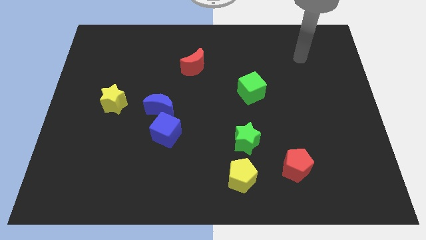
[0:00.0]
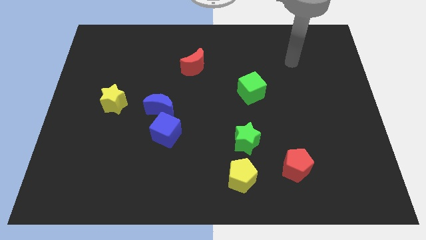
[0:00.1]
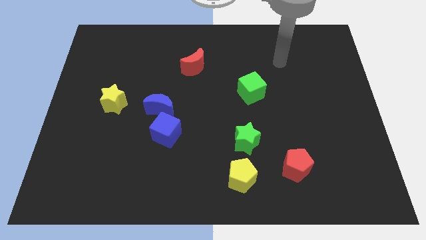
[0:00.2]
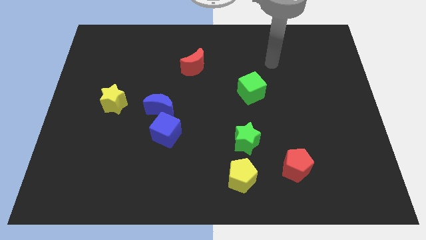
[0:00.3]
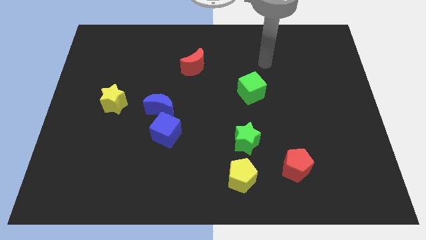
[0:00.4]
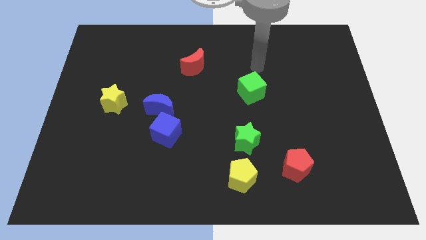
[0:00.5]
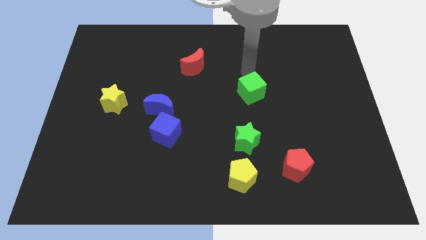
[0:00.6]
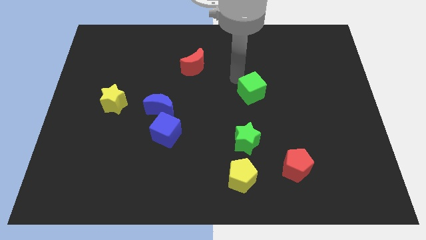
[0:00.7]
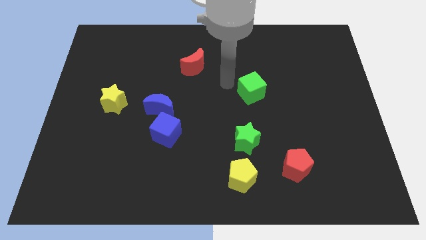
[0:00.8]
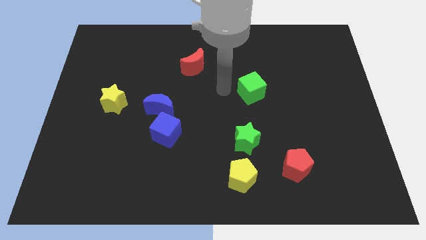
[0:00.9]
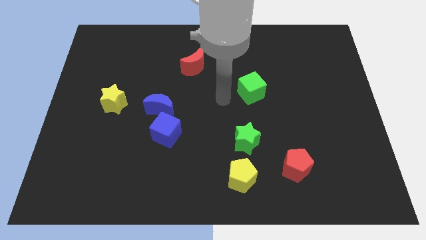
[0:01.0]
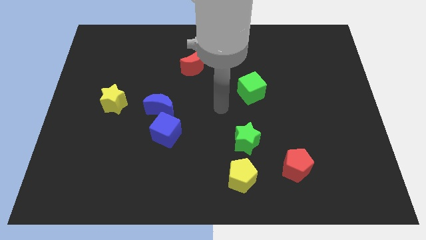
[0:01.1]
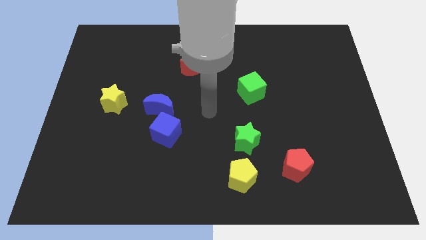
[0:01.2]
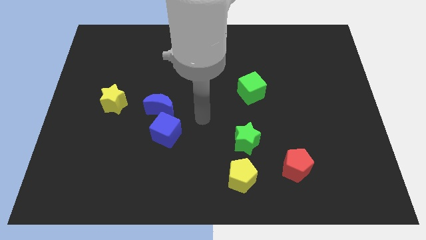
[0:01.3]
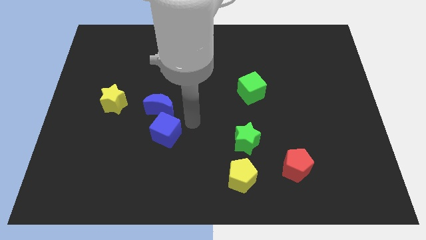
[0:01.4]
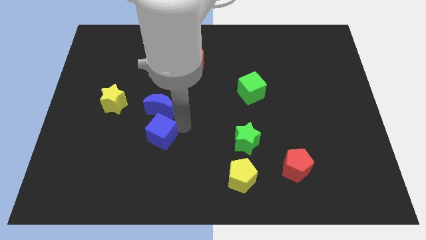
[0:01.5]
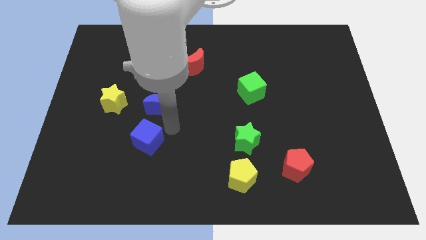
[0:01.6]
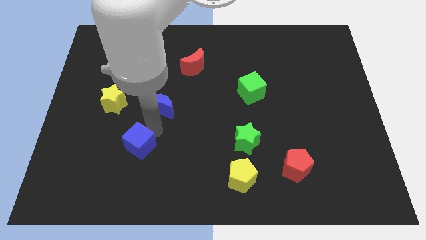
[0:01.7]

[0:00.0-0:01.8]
move the blue moon away from the blue cube

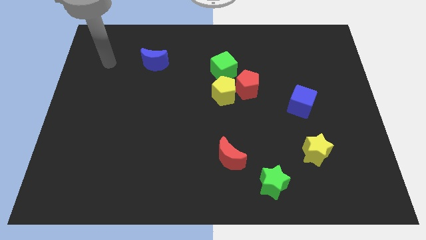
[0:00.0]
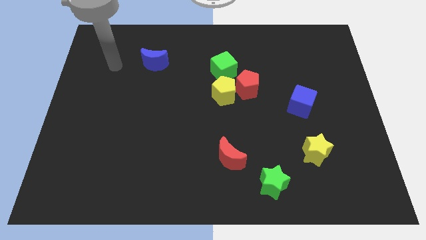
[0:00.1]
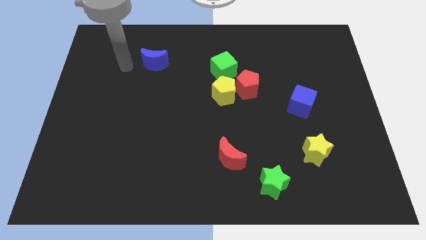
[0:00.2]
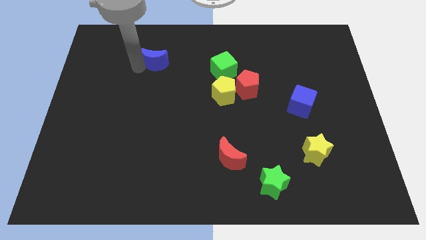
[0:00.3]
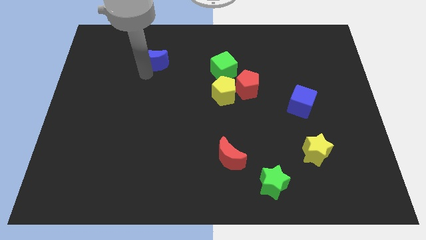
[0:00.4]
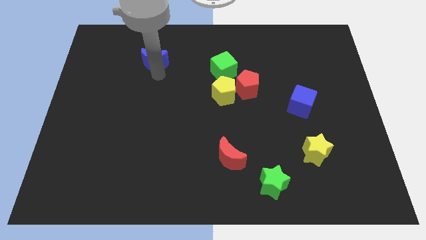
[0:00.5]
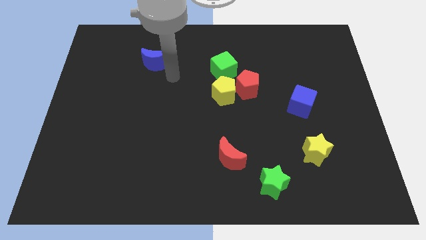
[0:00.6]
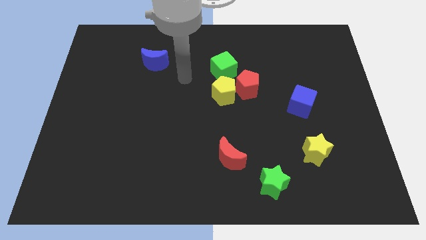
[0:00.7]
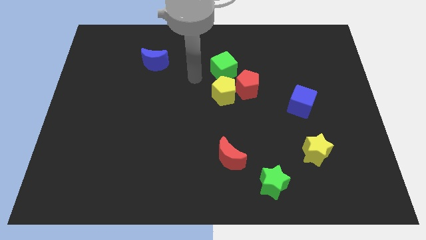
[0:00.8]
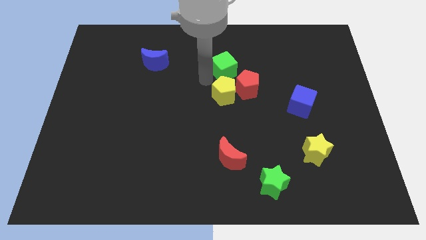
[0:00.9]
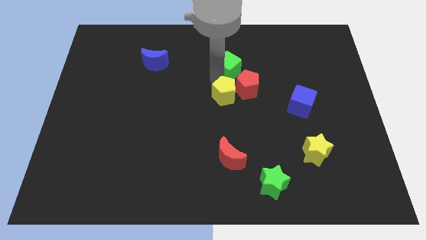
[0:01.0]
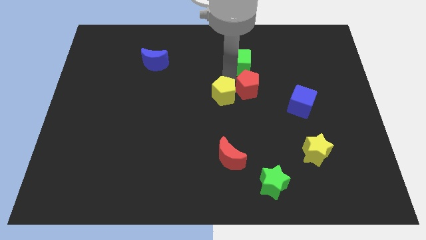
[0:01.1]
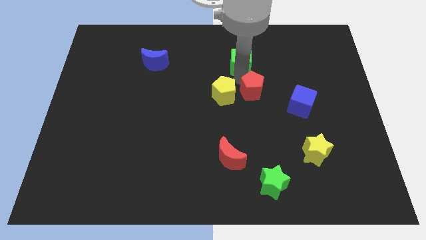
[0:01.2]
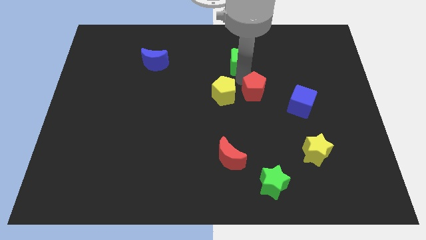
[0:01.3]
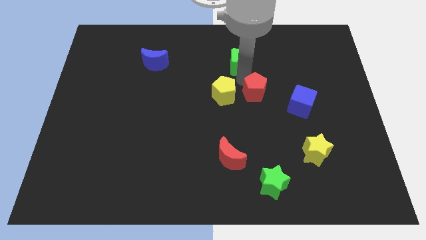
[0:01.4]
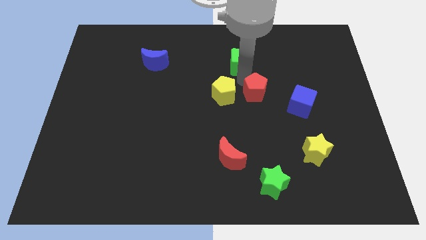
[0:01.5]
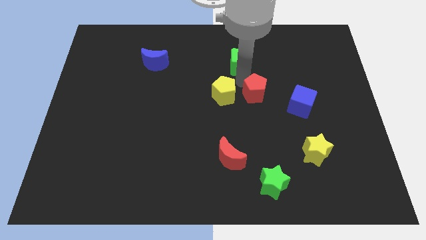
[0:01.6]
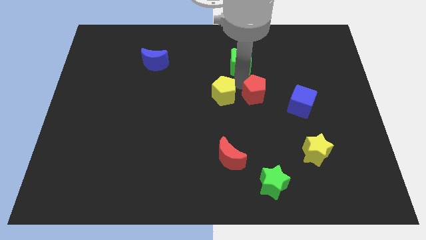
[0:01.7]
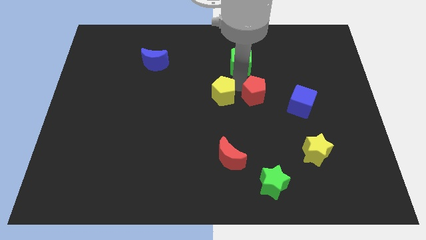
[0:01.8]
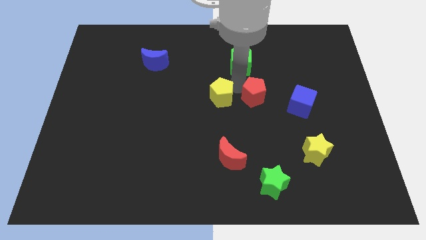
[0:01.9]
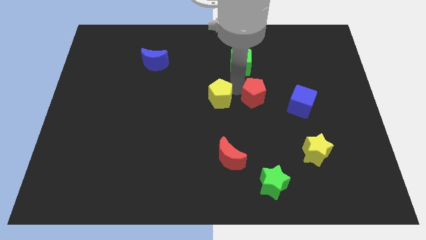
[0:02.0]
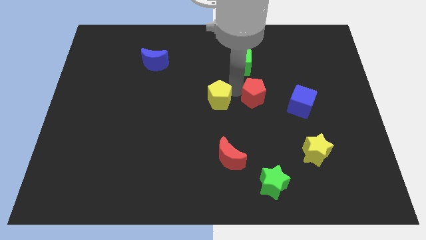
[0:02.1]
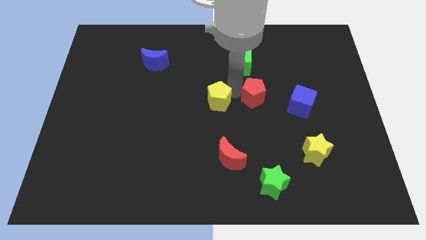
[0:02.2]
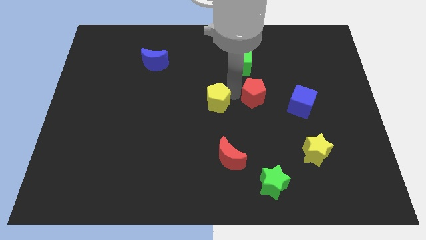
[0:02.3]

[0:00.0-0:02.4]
pull the yellow pentagon apart from the red pentagon and green cube

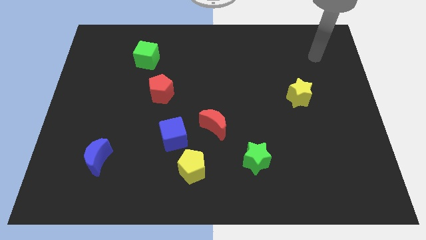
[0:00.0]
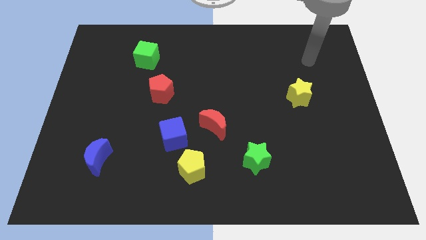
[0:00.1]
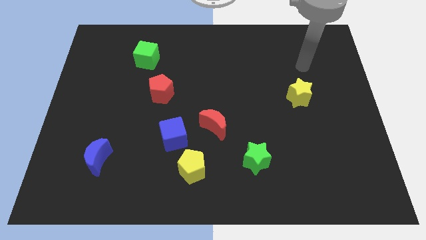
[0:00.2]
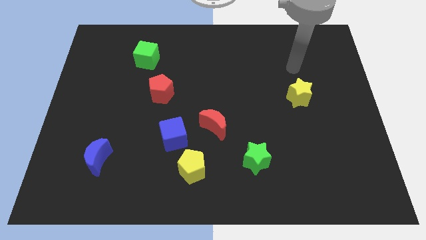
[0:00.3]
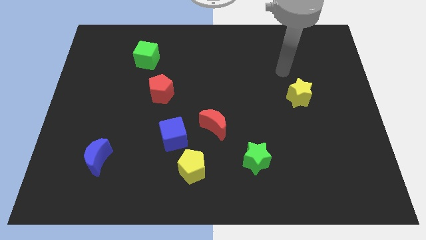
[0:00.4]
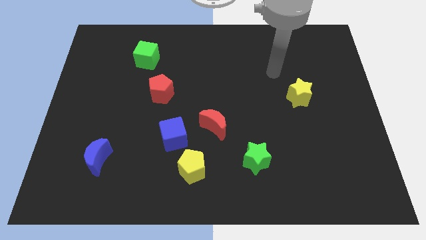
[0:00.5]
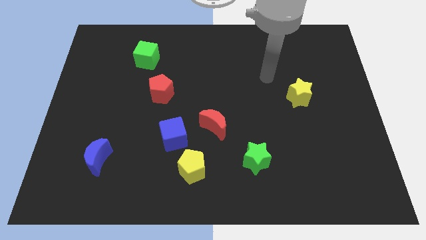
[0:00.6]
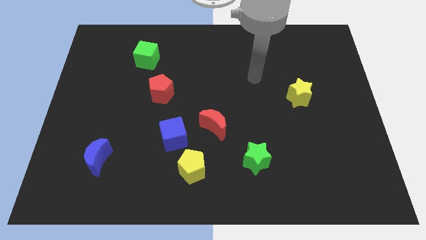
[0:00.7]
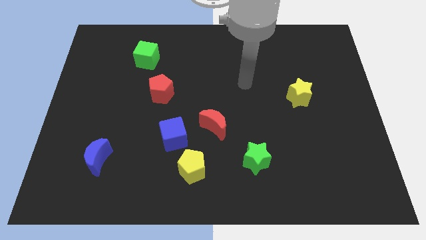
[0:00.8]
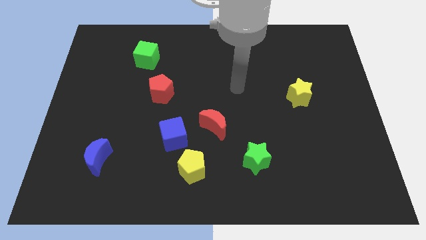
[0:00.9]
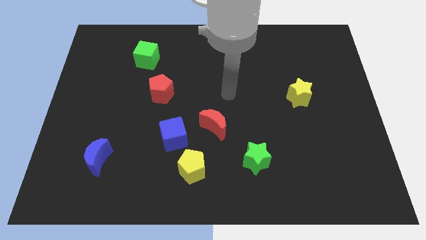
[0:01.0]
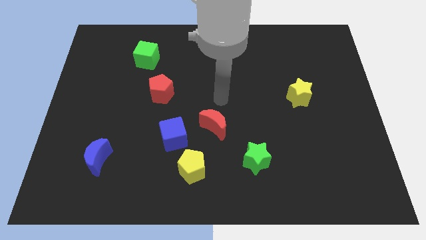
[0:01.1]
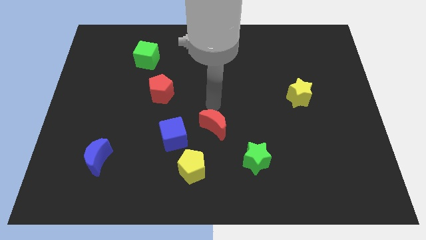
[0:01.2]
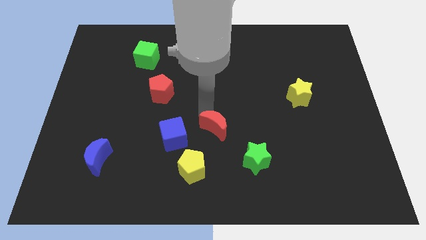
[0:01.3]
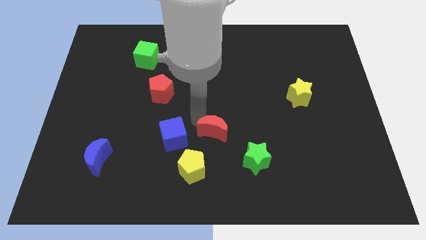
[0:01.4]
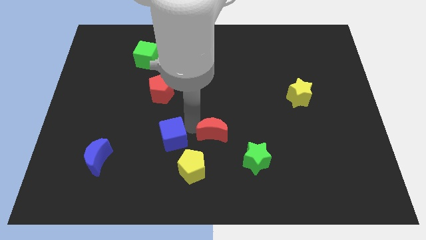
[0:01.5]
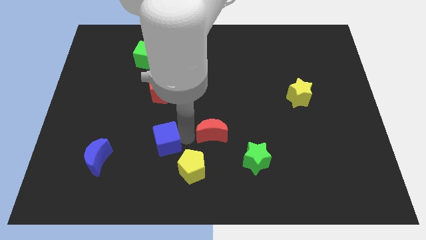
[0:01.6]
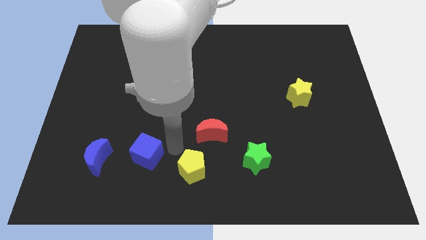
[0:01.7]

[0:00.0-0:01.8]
move the yellow pentagon away from the blue cube

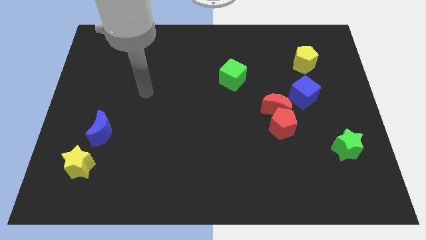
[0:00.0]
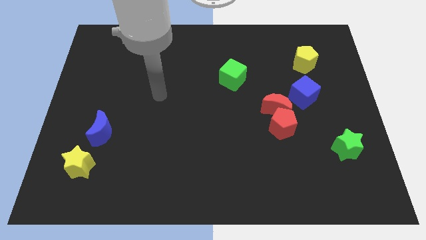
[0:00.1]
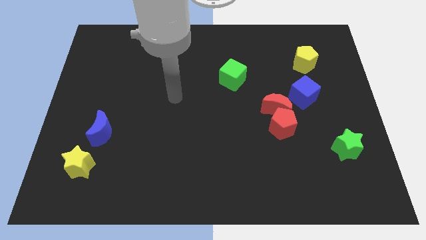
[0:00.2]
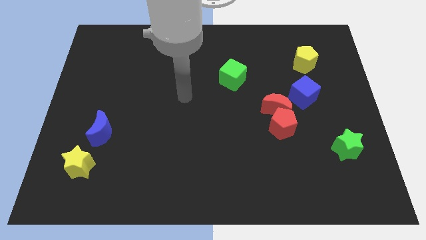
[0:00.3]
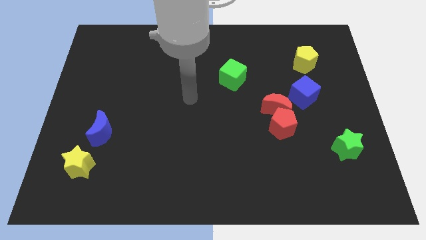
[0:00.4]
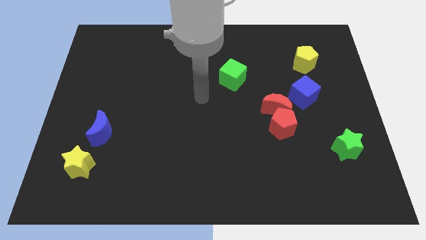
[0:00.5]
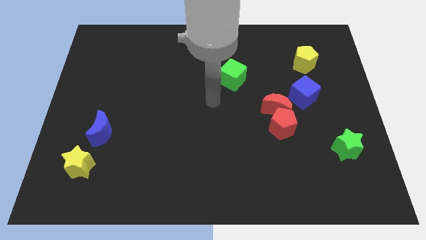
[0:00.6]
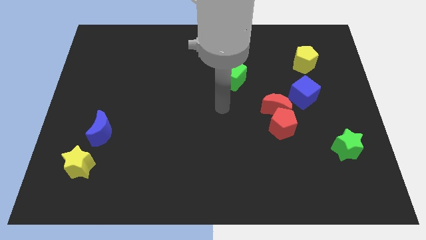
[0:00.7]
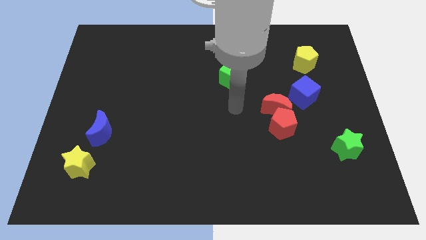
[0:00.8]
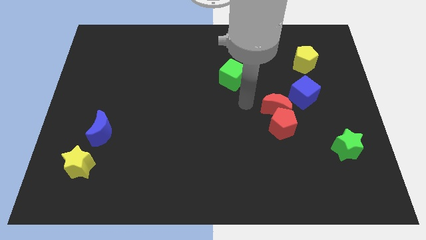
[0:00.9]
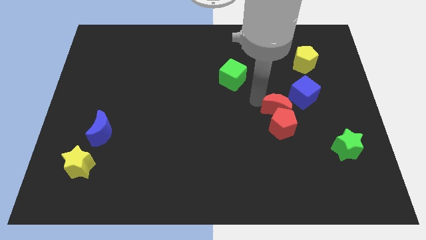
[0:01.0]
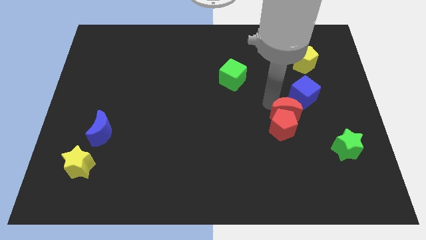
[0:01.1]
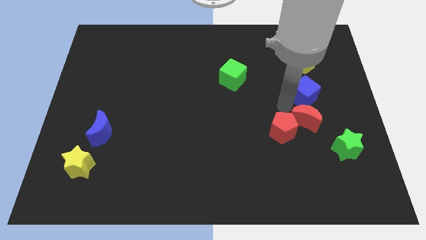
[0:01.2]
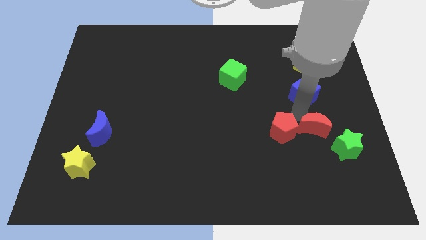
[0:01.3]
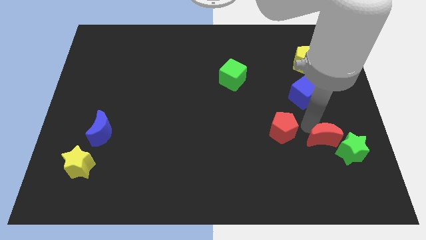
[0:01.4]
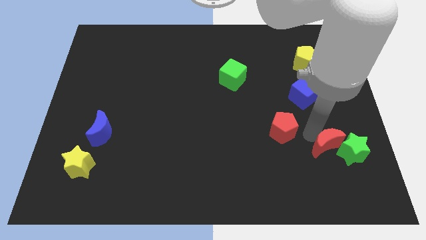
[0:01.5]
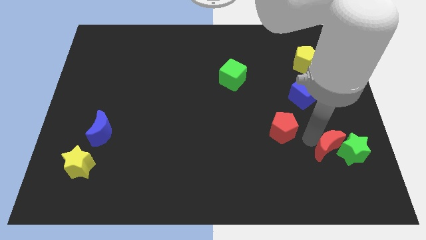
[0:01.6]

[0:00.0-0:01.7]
move the red pentagon away from the red moon

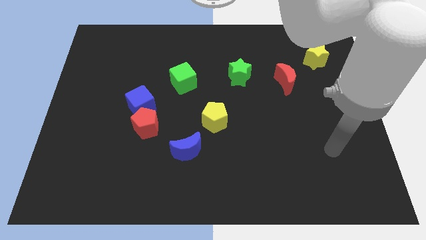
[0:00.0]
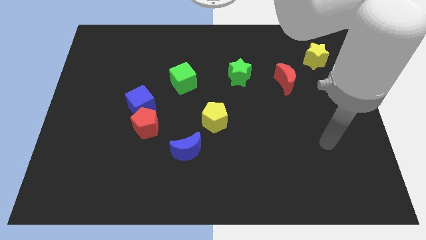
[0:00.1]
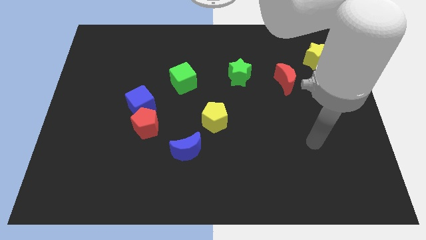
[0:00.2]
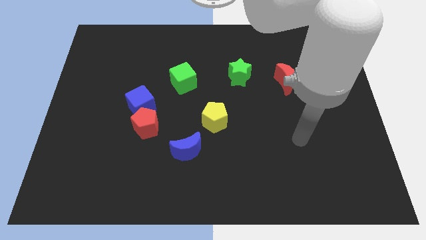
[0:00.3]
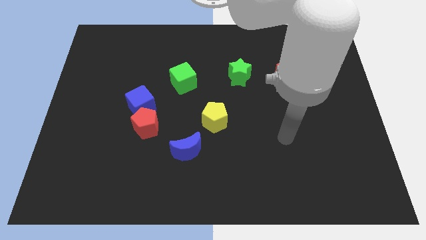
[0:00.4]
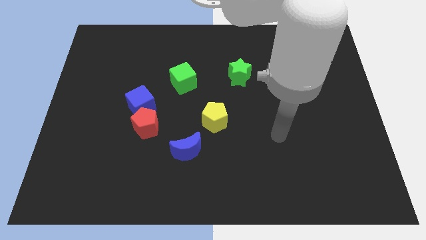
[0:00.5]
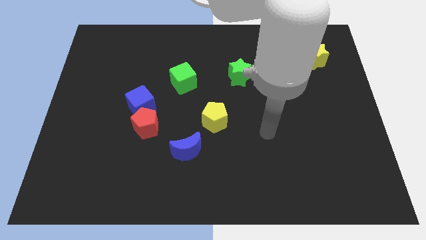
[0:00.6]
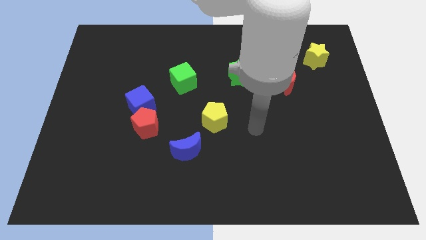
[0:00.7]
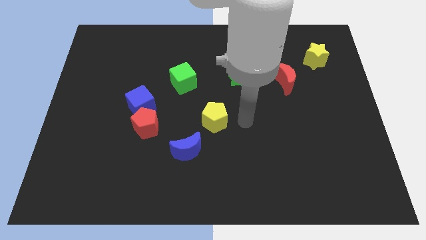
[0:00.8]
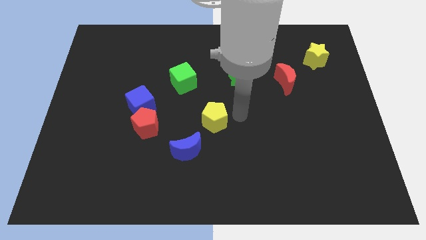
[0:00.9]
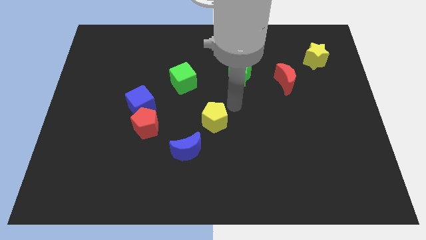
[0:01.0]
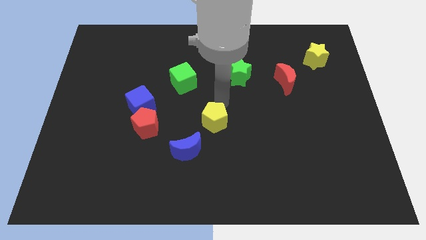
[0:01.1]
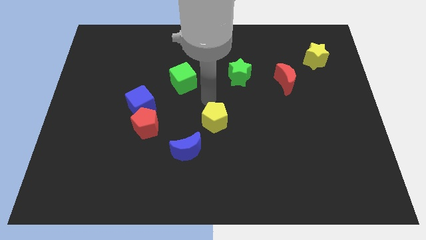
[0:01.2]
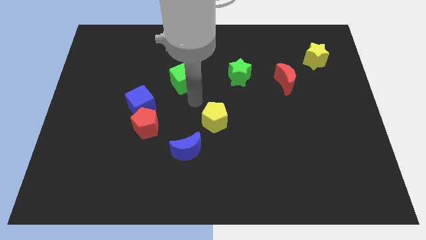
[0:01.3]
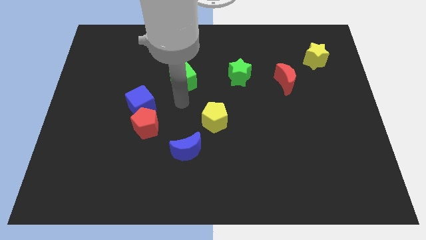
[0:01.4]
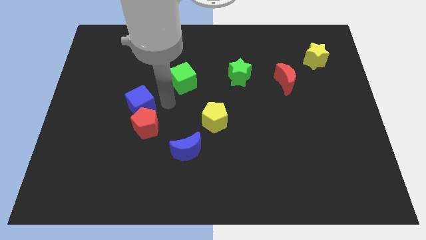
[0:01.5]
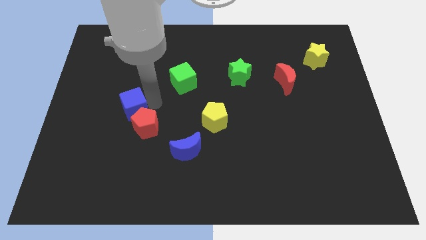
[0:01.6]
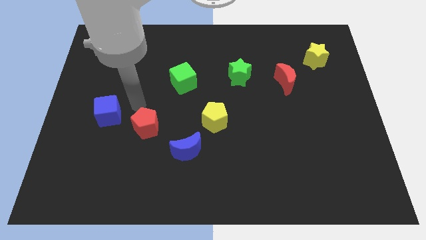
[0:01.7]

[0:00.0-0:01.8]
pull the red pentagon apart from the blue cube
